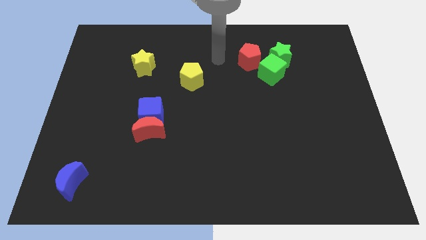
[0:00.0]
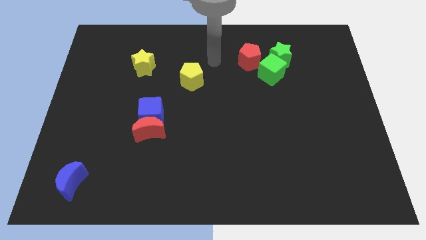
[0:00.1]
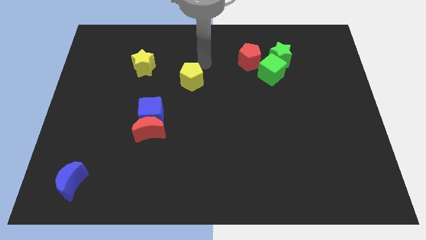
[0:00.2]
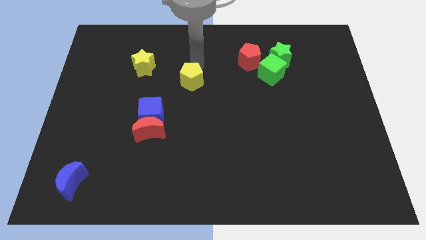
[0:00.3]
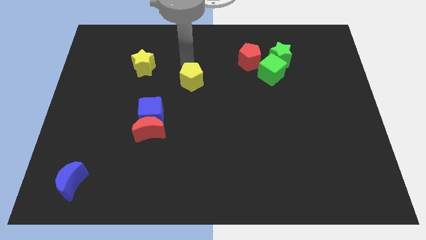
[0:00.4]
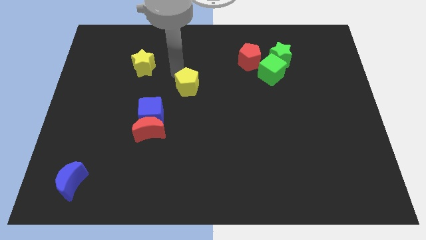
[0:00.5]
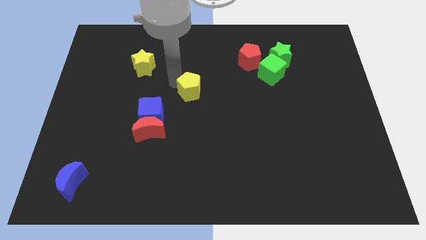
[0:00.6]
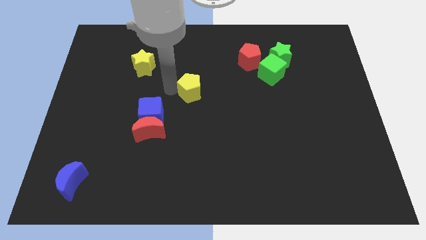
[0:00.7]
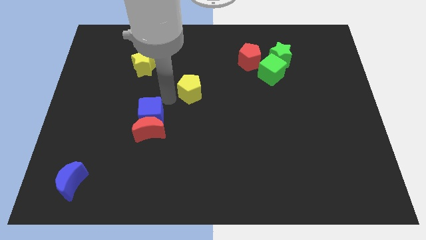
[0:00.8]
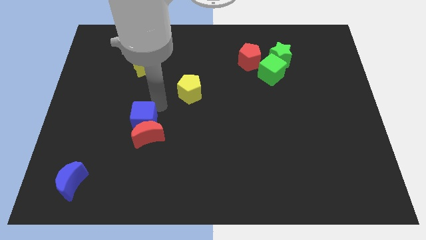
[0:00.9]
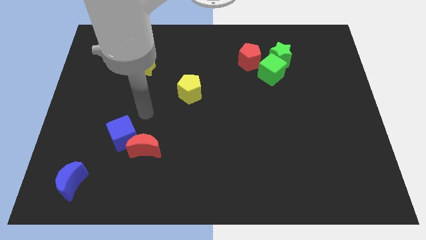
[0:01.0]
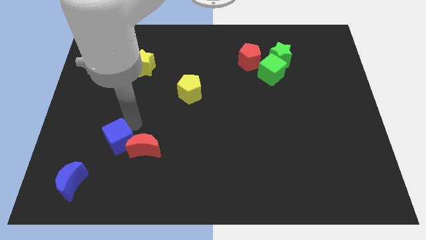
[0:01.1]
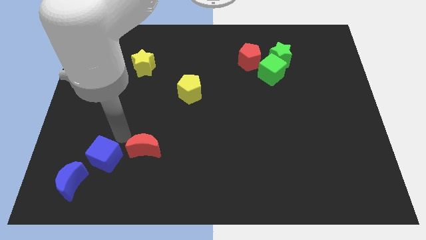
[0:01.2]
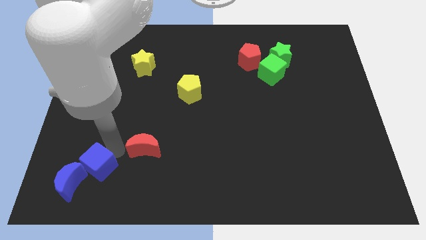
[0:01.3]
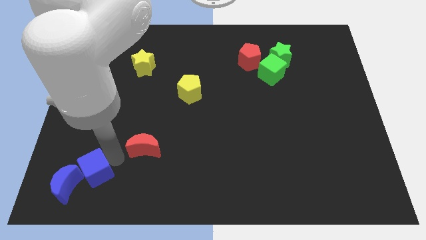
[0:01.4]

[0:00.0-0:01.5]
pull the red moon apart from the blue cube

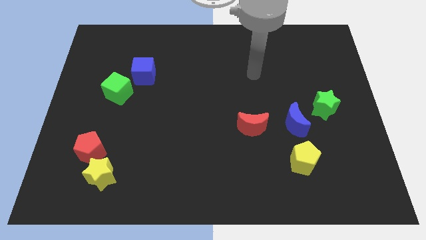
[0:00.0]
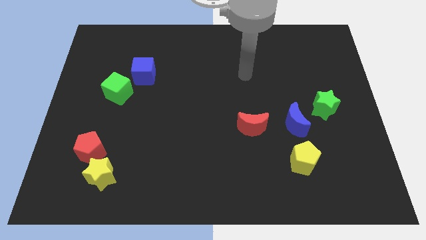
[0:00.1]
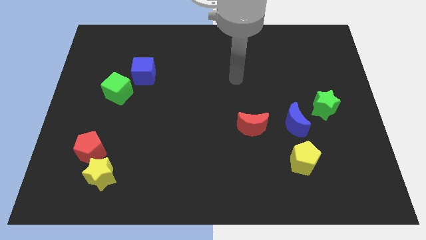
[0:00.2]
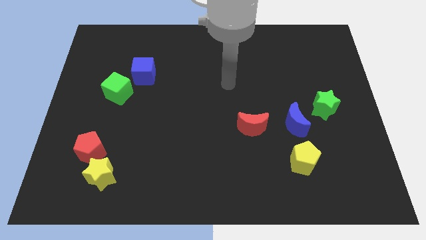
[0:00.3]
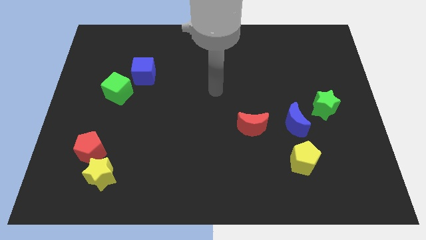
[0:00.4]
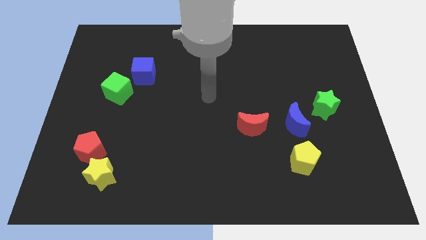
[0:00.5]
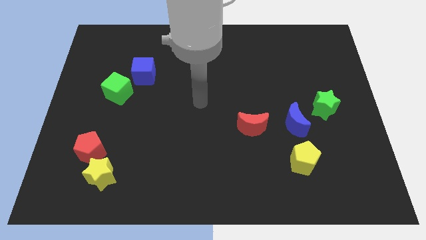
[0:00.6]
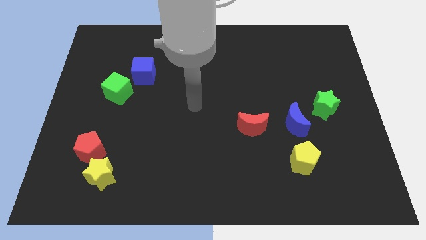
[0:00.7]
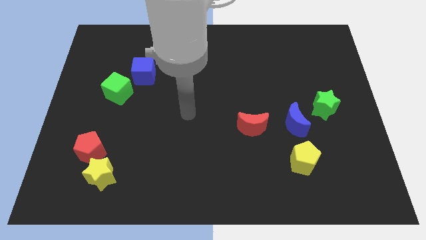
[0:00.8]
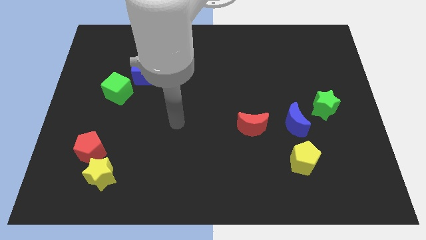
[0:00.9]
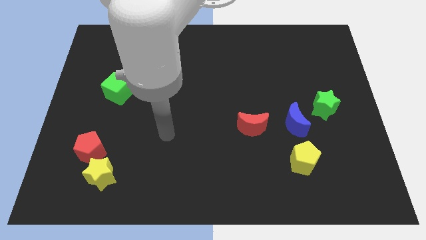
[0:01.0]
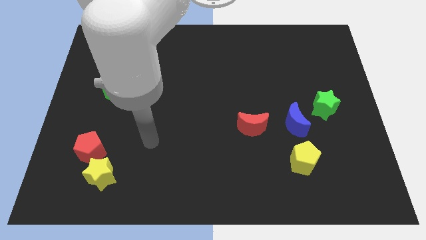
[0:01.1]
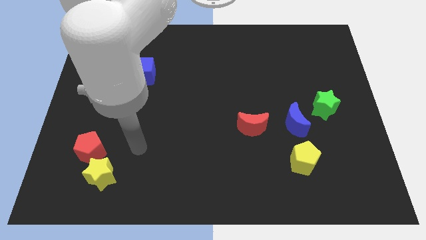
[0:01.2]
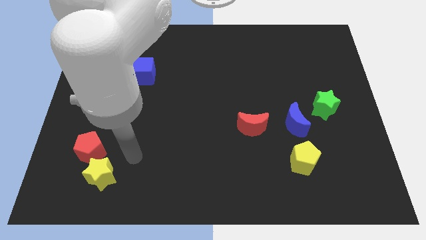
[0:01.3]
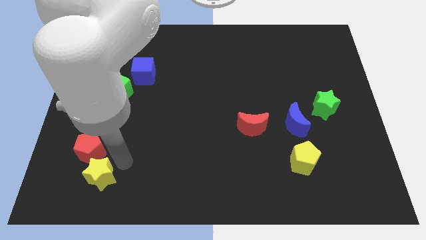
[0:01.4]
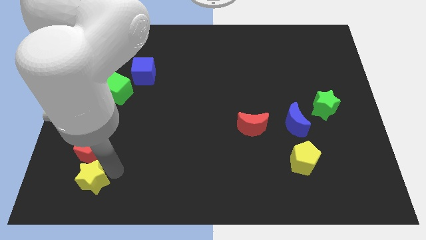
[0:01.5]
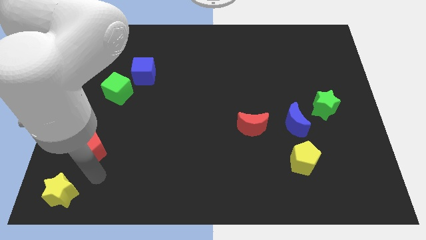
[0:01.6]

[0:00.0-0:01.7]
move the red pentagon away from the yellow star

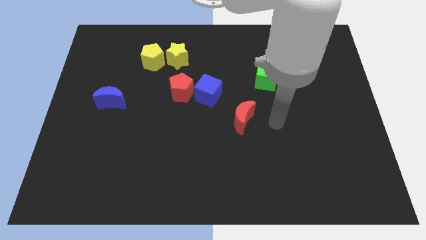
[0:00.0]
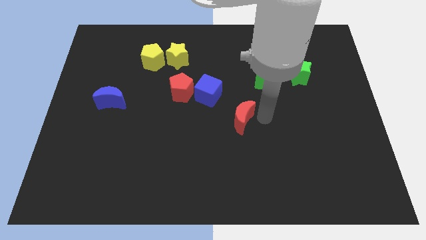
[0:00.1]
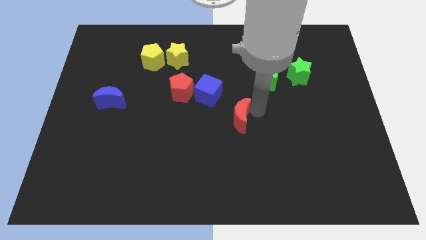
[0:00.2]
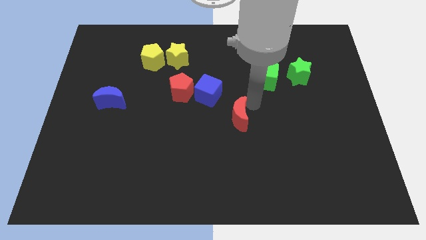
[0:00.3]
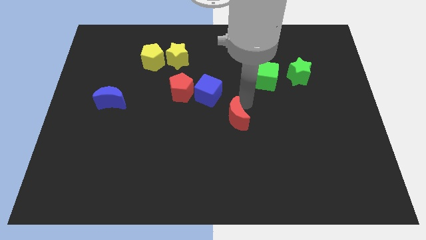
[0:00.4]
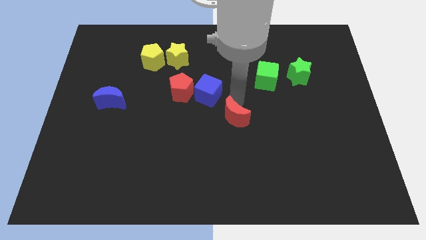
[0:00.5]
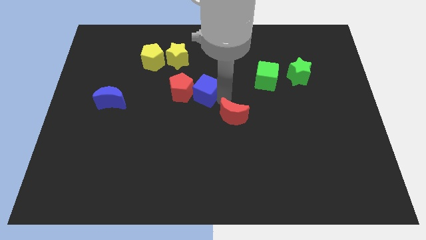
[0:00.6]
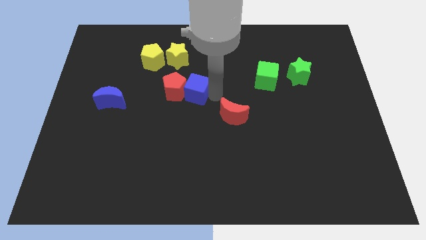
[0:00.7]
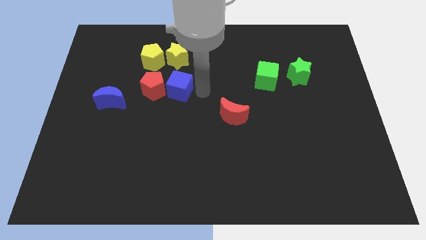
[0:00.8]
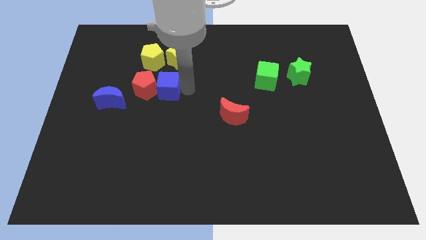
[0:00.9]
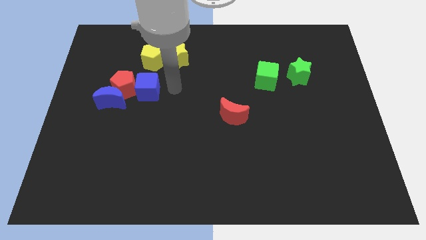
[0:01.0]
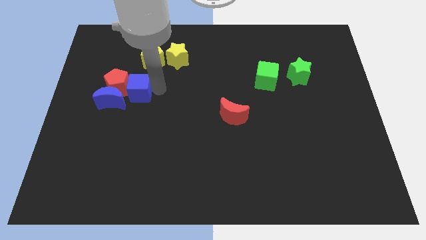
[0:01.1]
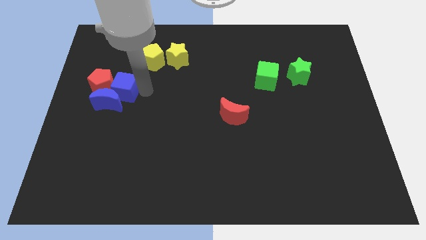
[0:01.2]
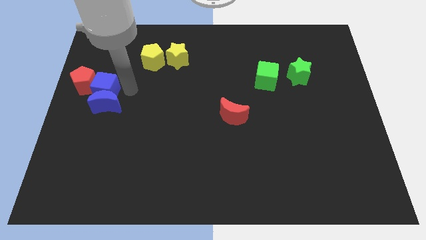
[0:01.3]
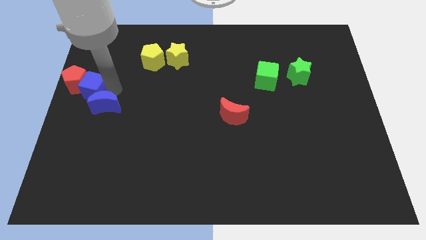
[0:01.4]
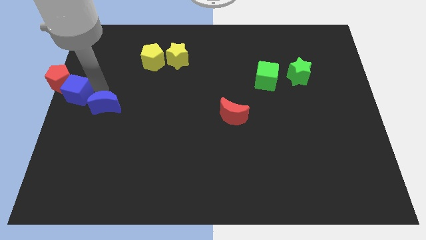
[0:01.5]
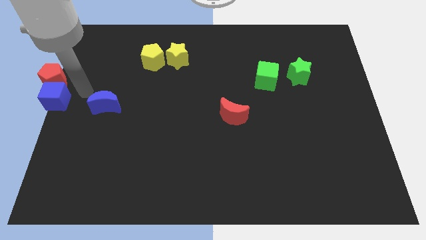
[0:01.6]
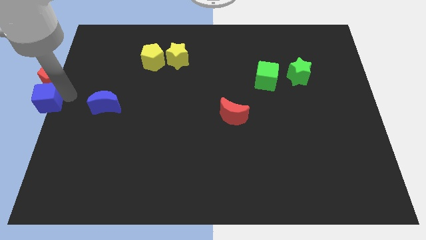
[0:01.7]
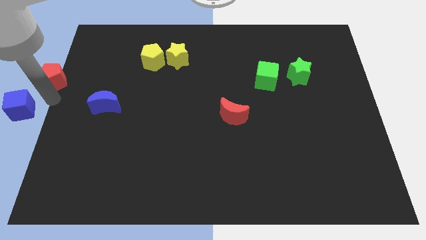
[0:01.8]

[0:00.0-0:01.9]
separate the red pentagon from the blue cube

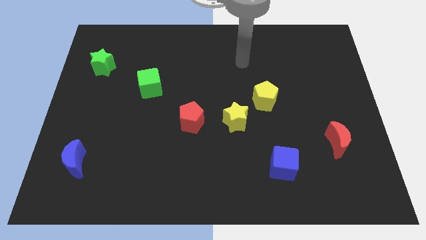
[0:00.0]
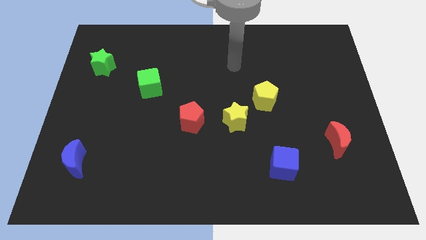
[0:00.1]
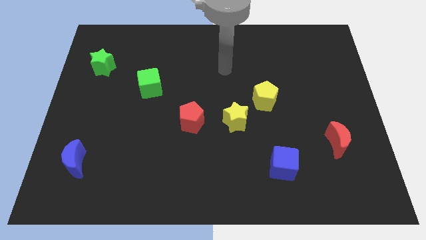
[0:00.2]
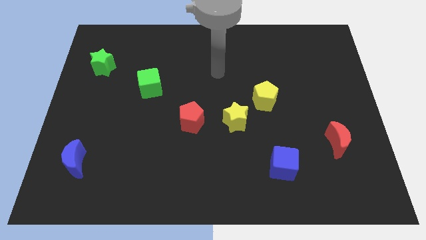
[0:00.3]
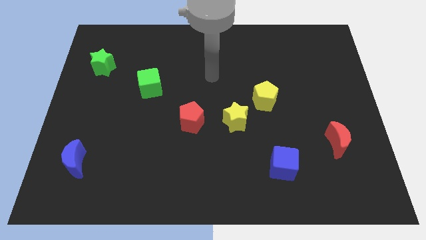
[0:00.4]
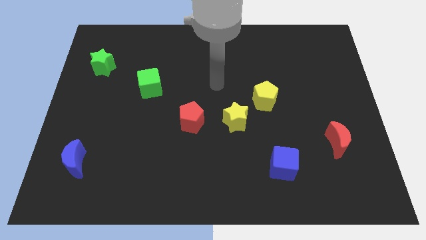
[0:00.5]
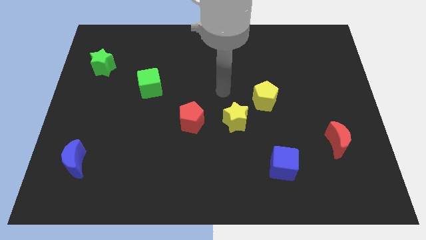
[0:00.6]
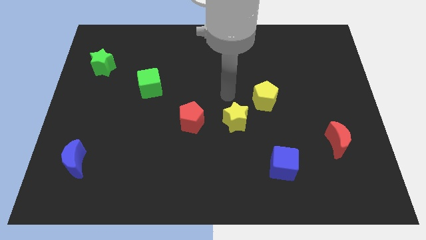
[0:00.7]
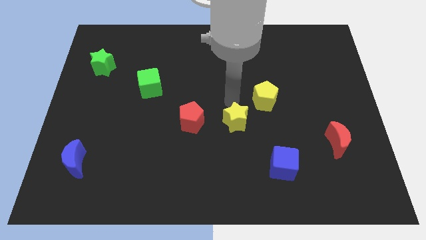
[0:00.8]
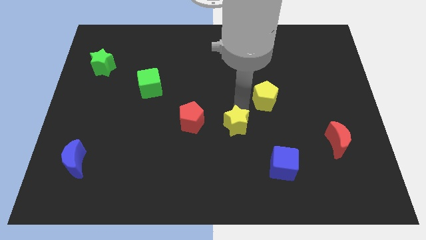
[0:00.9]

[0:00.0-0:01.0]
move the yellow pentagon away from the yellow star

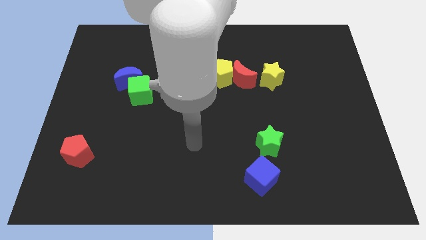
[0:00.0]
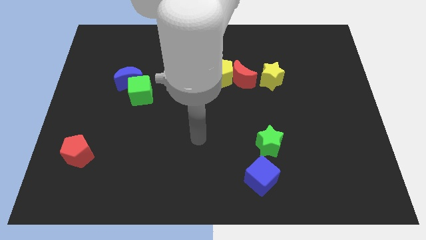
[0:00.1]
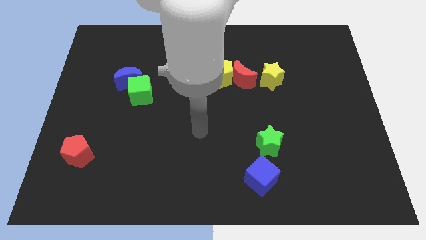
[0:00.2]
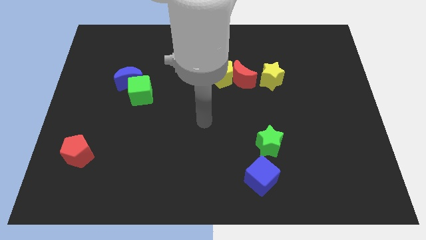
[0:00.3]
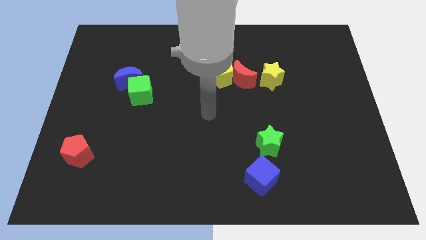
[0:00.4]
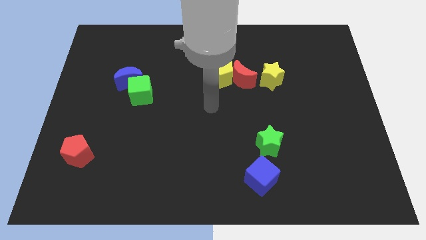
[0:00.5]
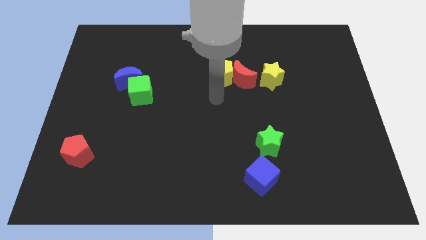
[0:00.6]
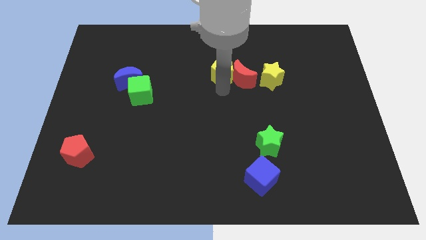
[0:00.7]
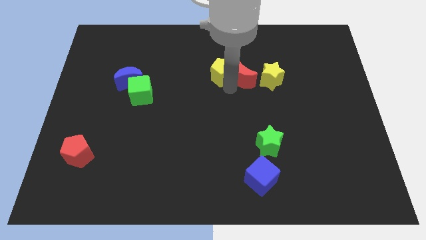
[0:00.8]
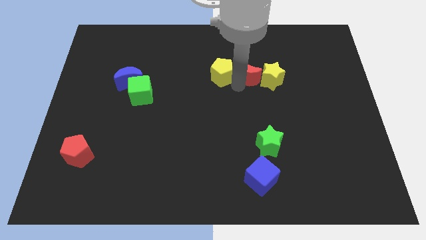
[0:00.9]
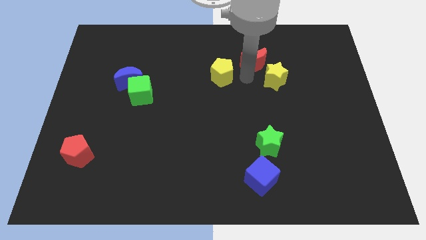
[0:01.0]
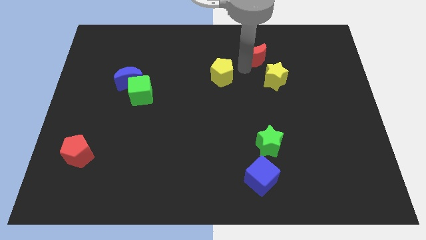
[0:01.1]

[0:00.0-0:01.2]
pull the yellow pentagon apart from the red moon

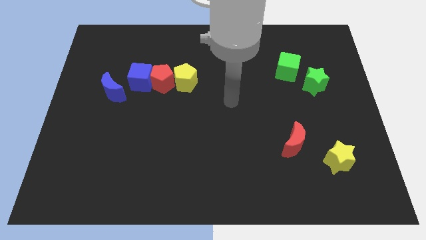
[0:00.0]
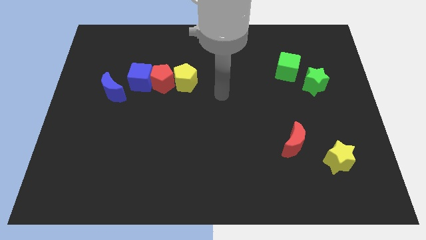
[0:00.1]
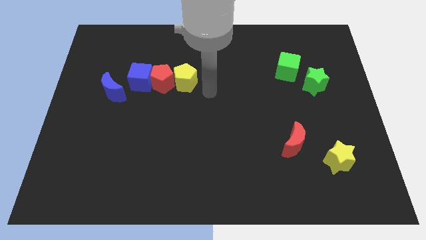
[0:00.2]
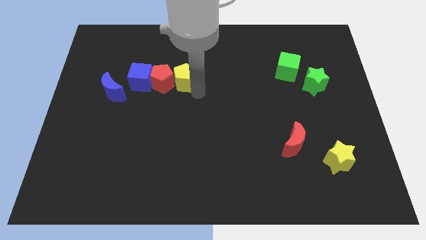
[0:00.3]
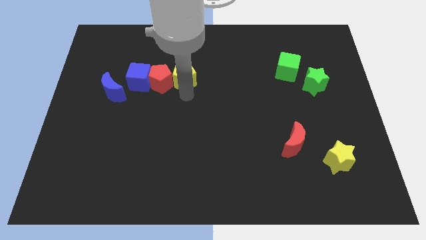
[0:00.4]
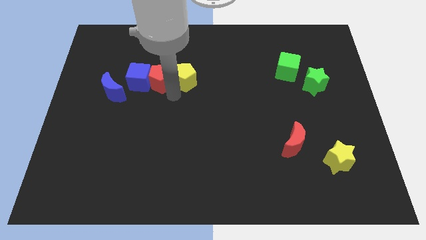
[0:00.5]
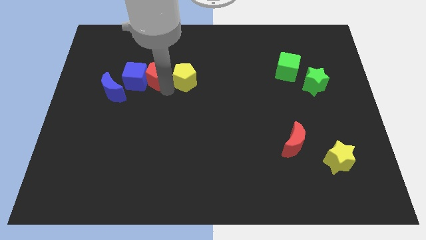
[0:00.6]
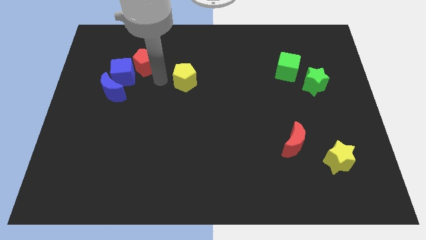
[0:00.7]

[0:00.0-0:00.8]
separate the yellow pentagon from the red pentagon

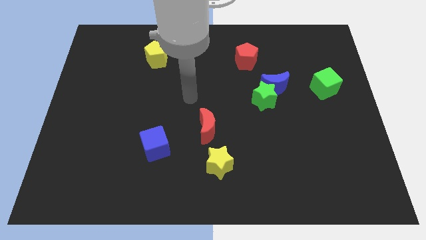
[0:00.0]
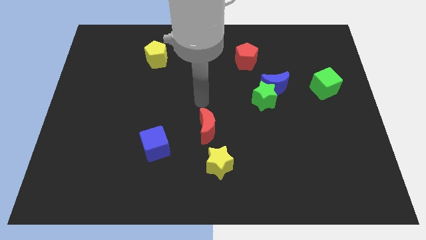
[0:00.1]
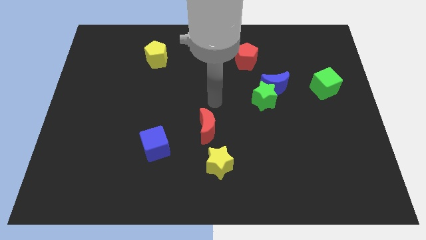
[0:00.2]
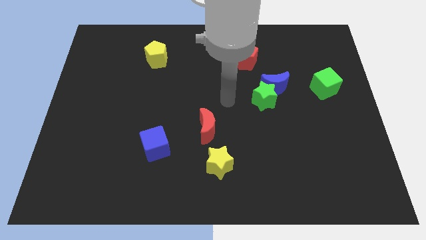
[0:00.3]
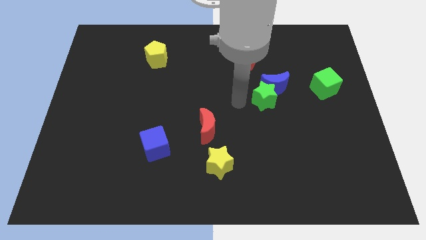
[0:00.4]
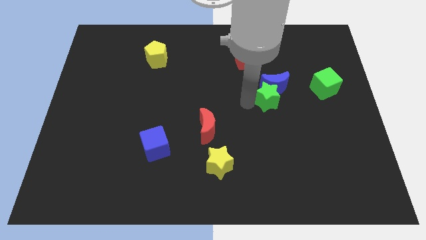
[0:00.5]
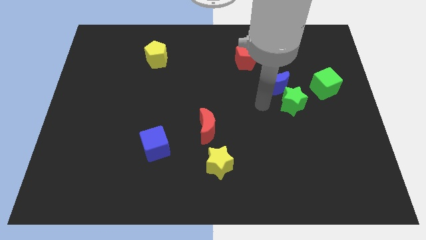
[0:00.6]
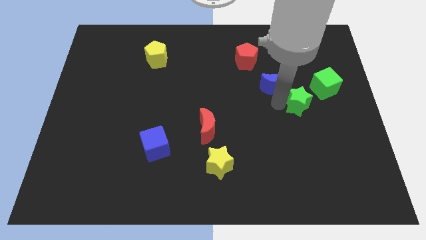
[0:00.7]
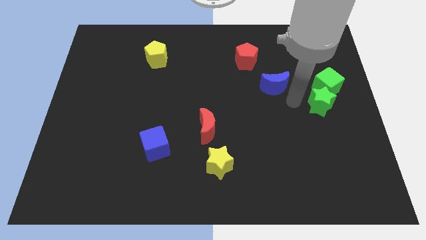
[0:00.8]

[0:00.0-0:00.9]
pull the blue moon apart from the green star

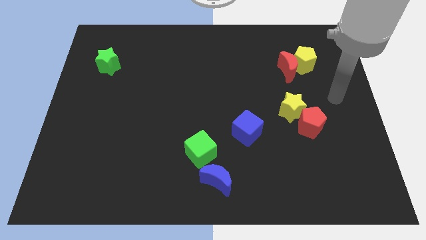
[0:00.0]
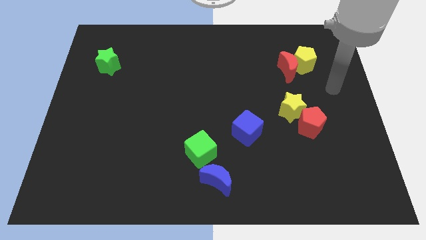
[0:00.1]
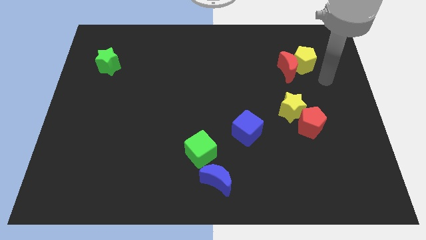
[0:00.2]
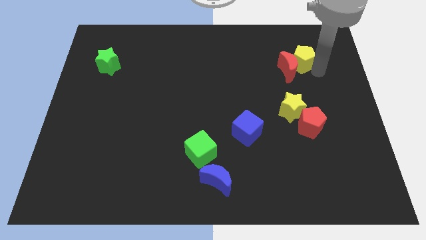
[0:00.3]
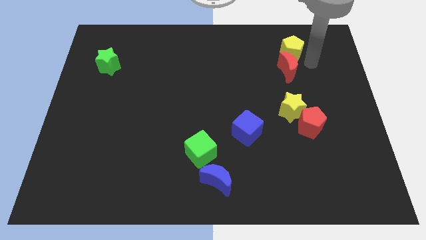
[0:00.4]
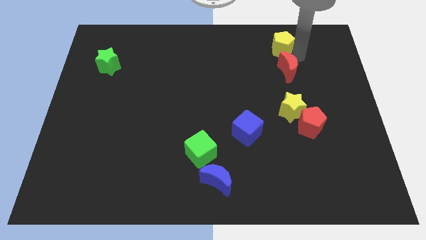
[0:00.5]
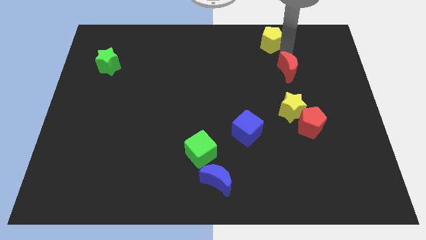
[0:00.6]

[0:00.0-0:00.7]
separate the red moon from the yellow pentagon
